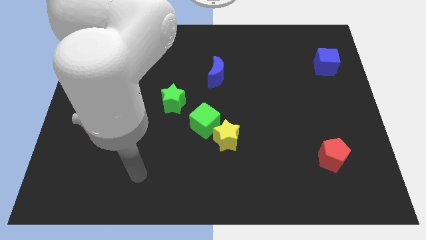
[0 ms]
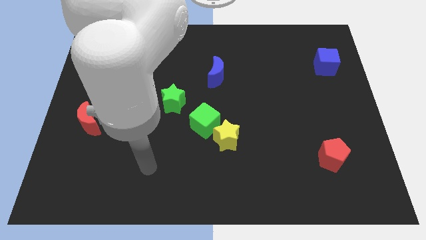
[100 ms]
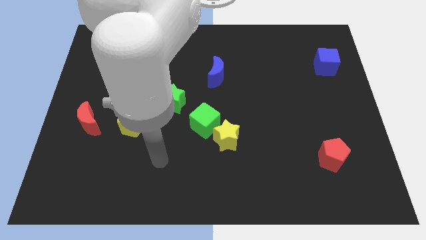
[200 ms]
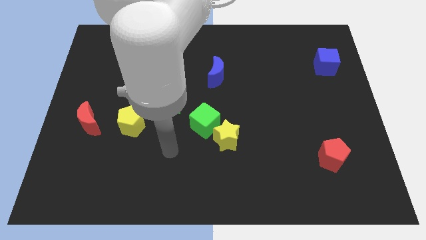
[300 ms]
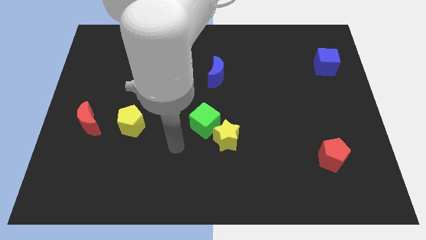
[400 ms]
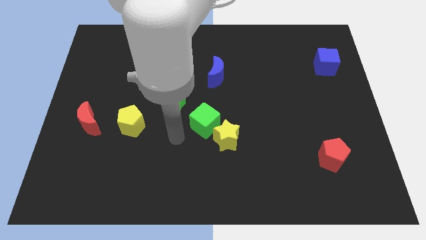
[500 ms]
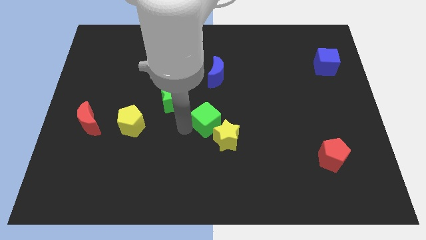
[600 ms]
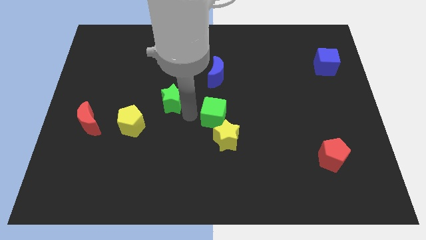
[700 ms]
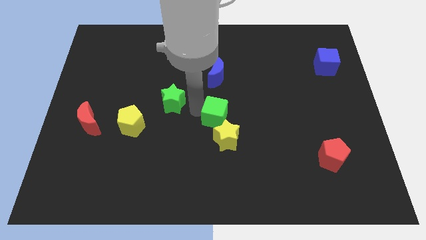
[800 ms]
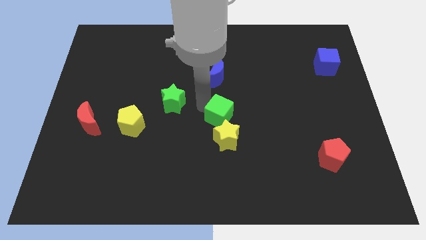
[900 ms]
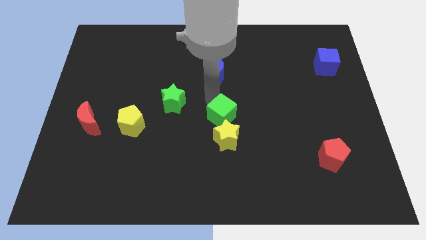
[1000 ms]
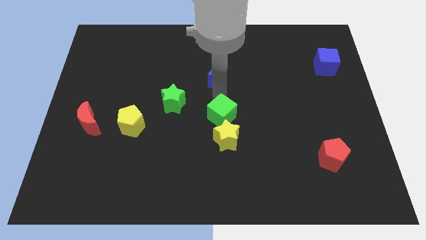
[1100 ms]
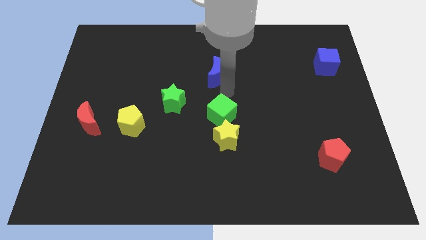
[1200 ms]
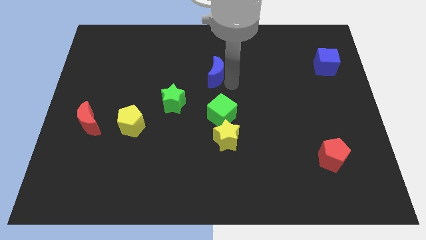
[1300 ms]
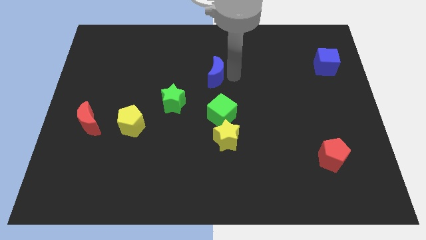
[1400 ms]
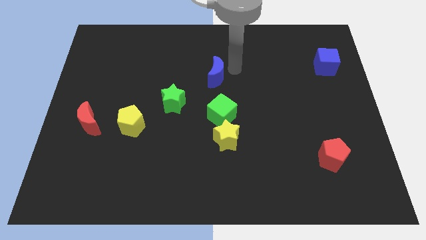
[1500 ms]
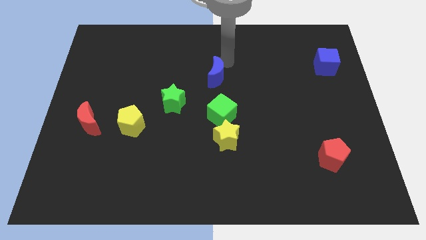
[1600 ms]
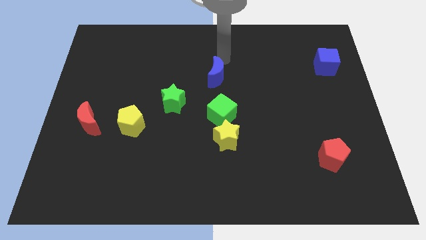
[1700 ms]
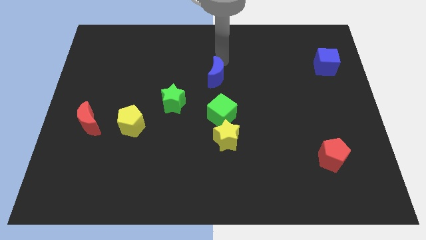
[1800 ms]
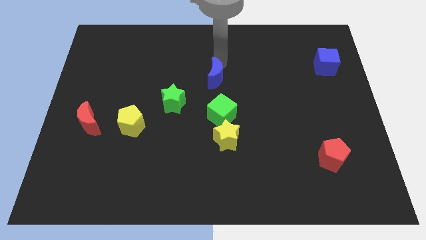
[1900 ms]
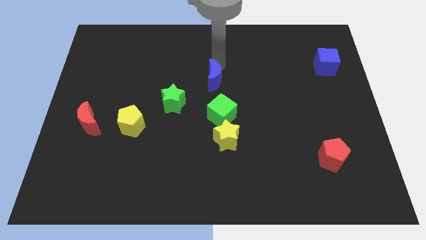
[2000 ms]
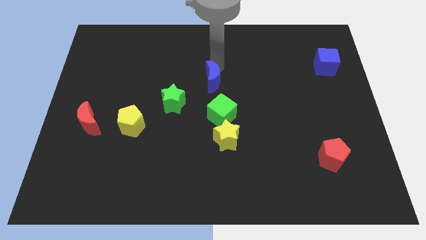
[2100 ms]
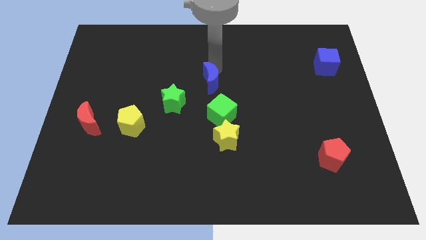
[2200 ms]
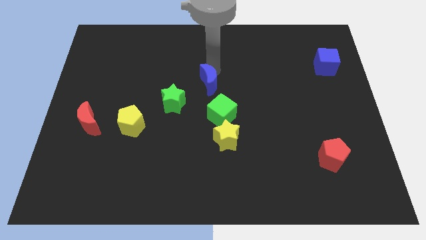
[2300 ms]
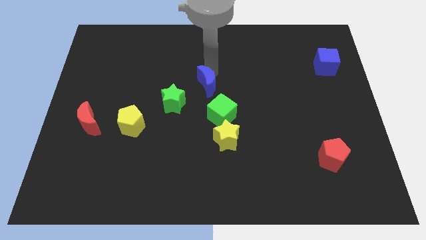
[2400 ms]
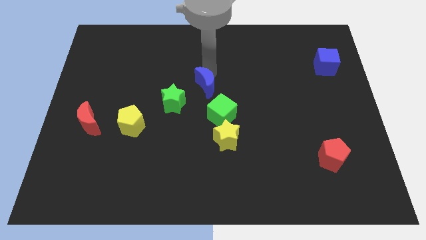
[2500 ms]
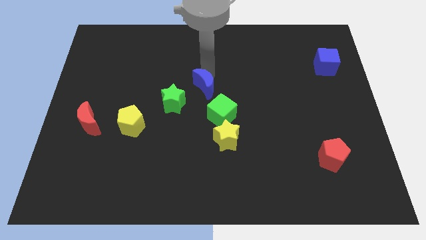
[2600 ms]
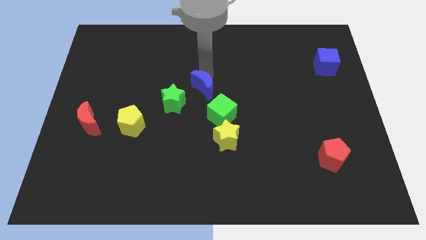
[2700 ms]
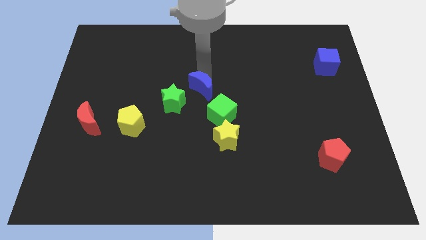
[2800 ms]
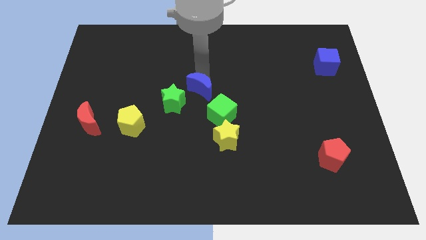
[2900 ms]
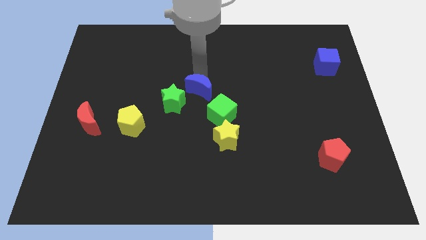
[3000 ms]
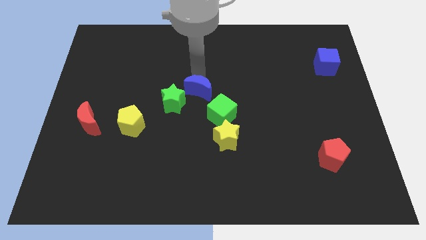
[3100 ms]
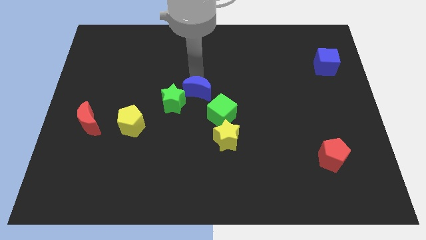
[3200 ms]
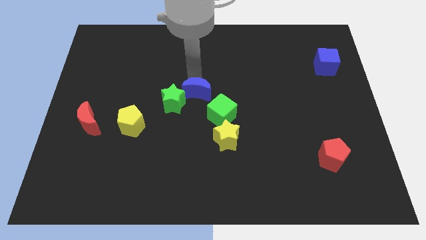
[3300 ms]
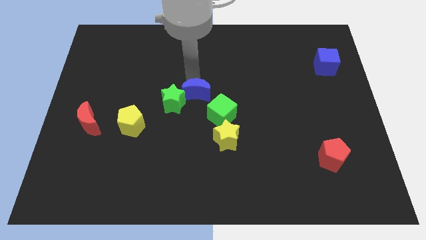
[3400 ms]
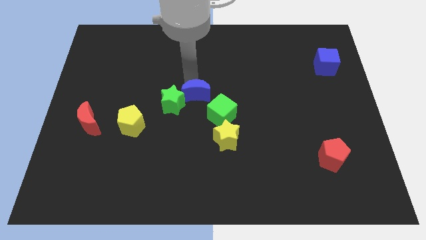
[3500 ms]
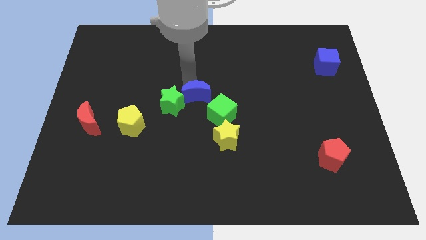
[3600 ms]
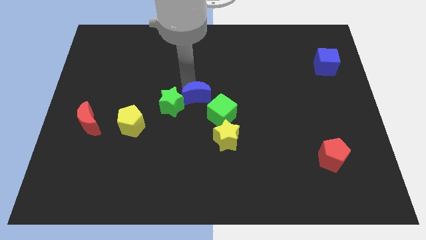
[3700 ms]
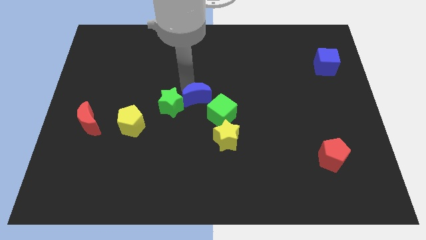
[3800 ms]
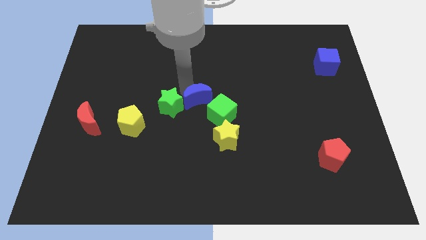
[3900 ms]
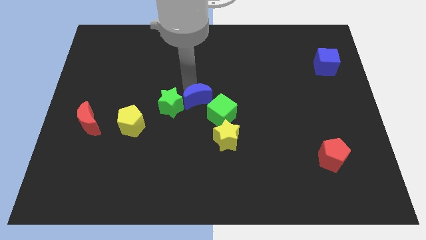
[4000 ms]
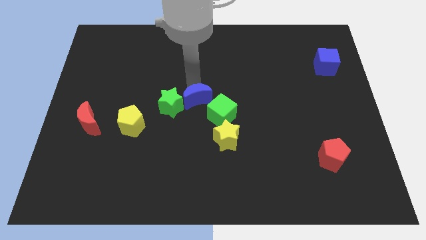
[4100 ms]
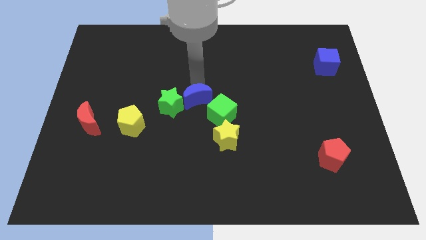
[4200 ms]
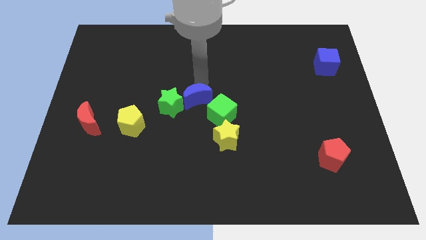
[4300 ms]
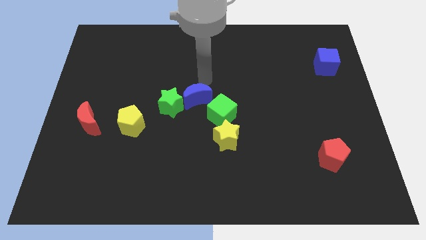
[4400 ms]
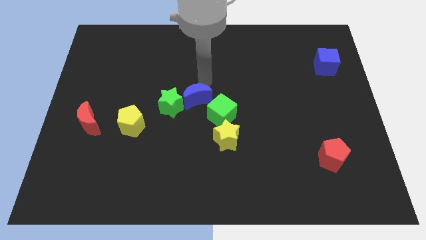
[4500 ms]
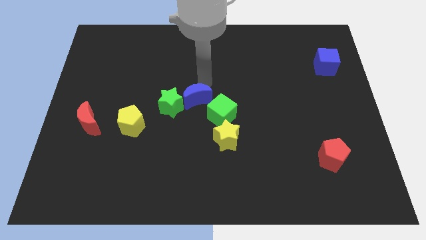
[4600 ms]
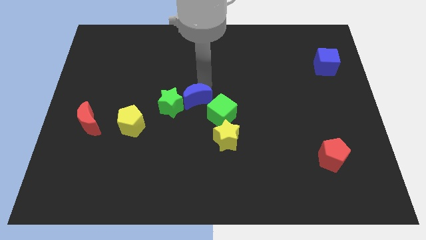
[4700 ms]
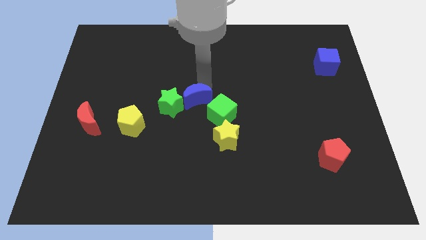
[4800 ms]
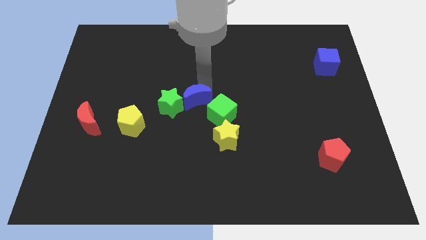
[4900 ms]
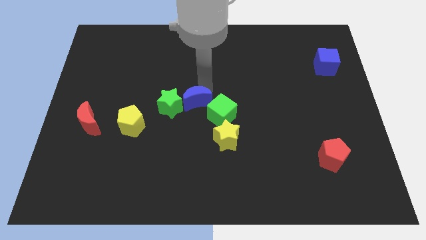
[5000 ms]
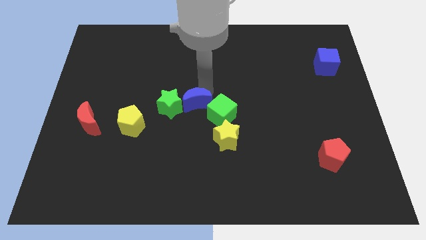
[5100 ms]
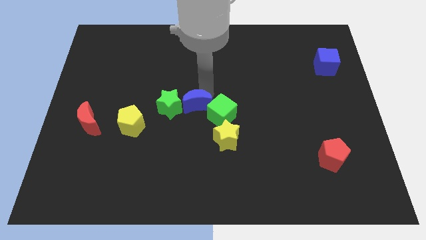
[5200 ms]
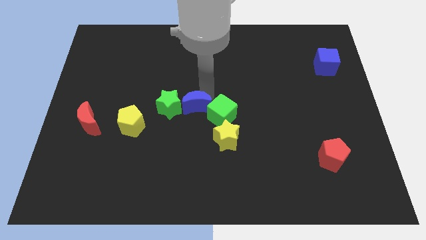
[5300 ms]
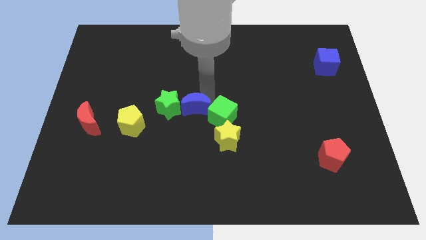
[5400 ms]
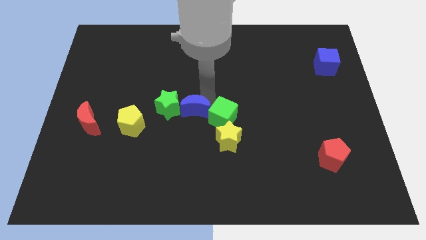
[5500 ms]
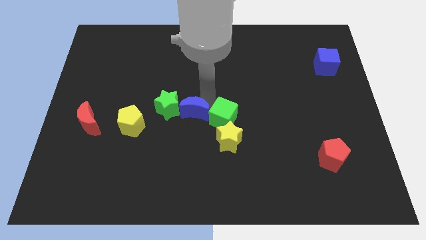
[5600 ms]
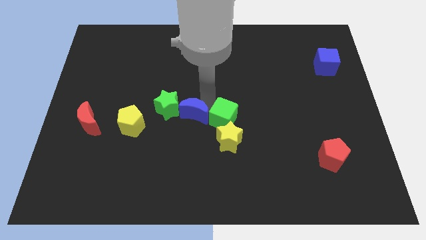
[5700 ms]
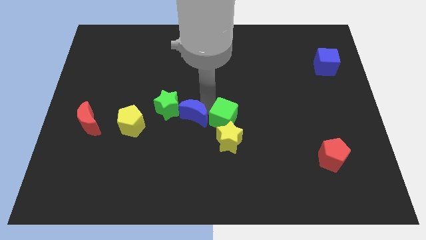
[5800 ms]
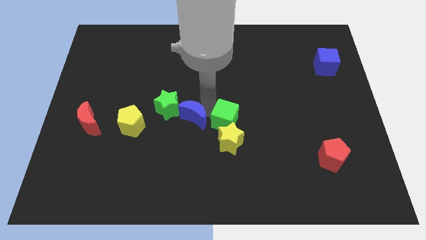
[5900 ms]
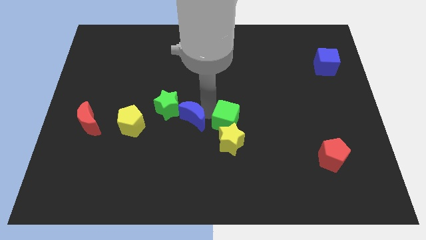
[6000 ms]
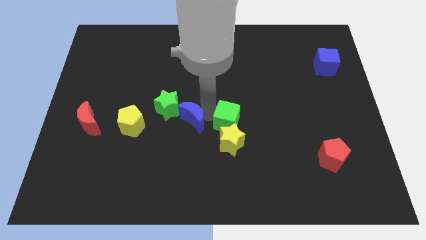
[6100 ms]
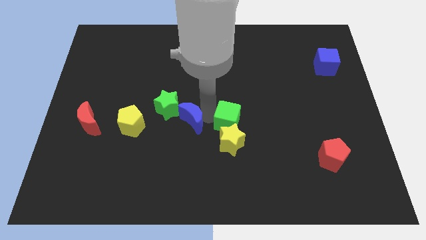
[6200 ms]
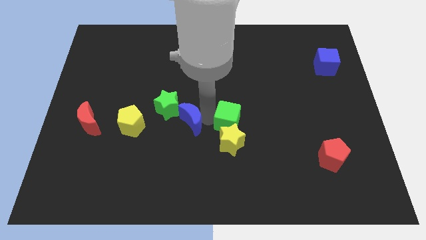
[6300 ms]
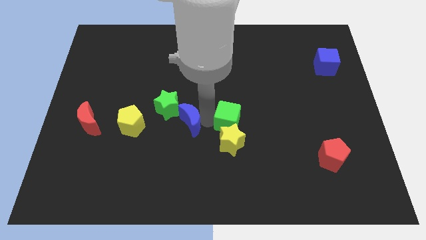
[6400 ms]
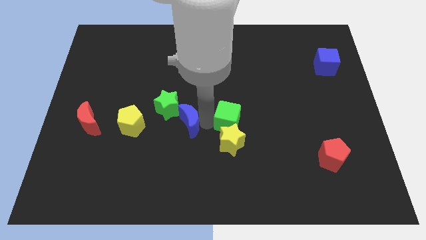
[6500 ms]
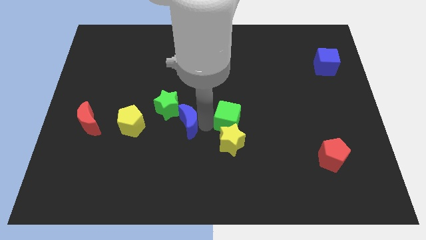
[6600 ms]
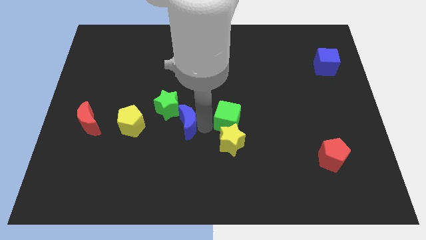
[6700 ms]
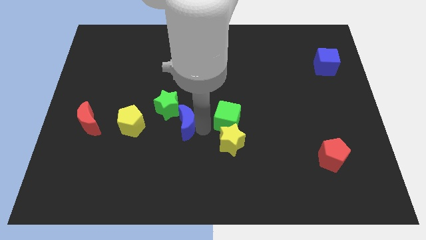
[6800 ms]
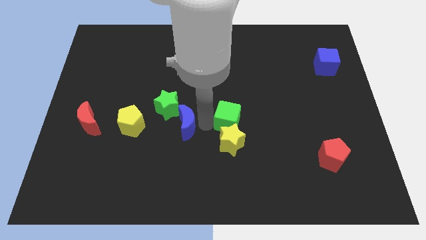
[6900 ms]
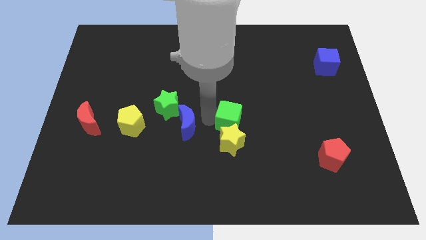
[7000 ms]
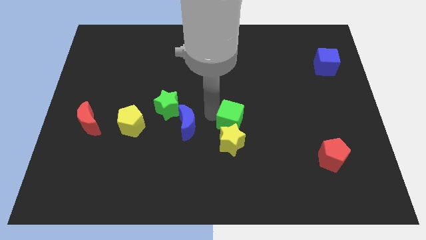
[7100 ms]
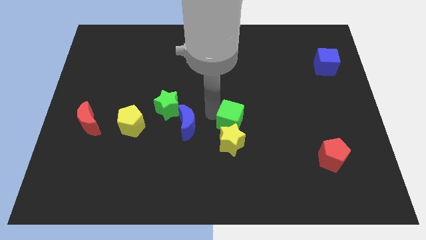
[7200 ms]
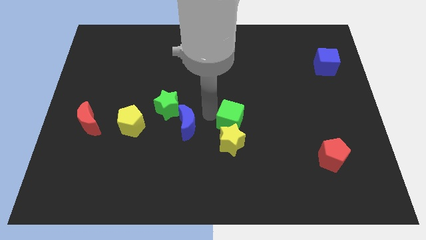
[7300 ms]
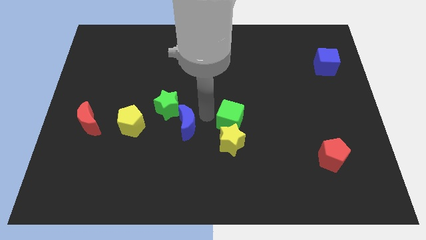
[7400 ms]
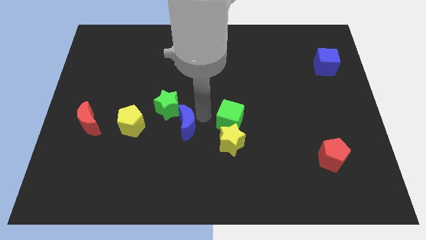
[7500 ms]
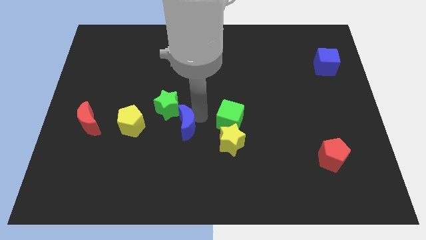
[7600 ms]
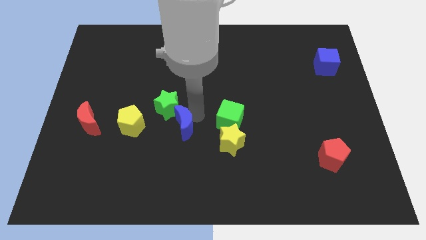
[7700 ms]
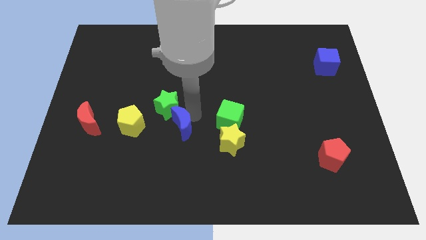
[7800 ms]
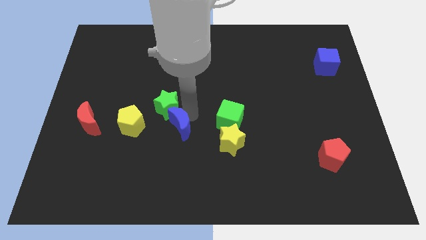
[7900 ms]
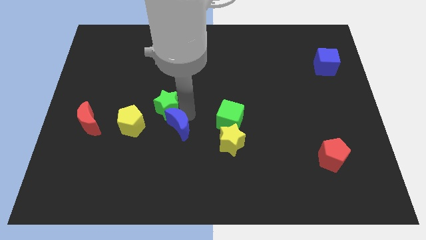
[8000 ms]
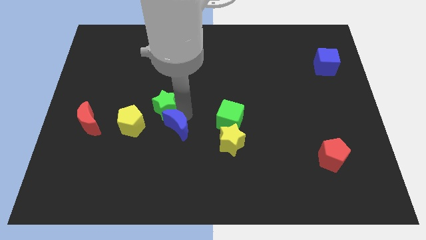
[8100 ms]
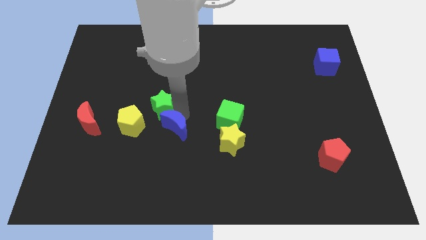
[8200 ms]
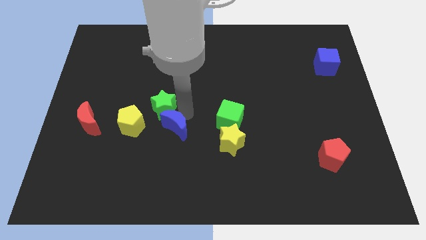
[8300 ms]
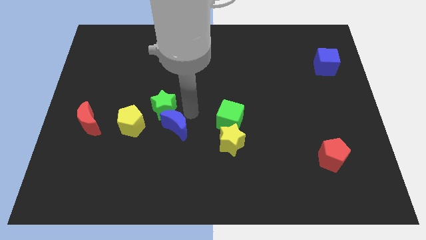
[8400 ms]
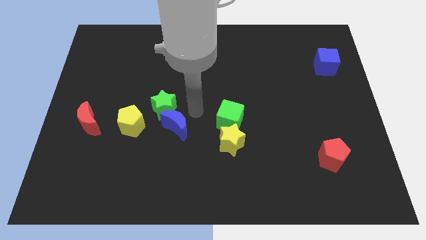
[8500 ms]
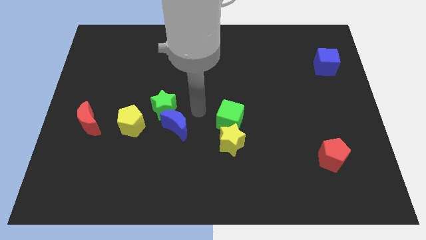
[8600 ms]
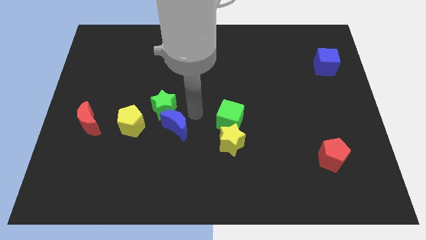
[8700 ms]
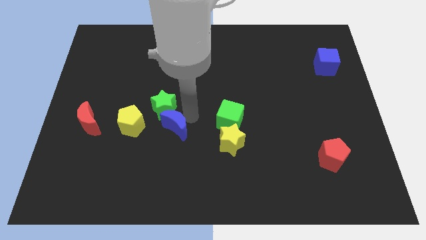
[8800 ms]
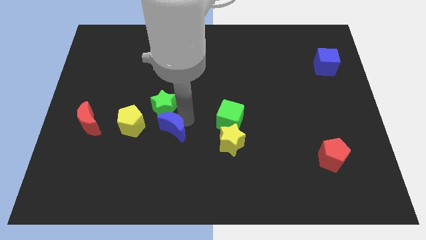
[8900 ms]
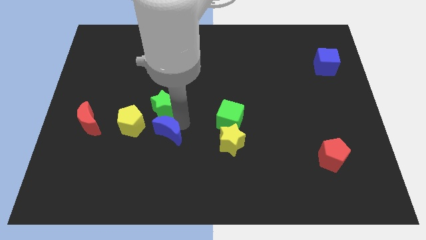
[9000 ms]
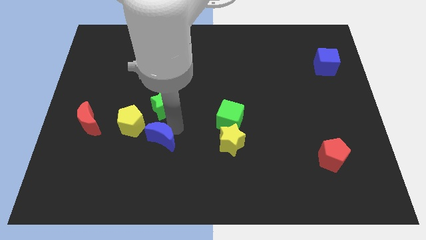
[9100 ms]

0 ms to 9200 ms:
move the blue moon down and to the left
